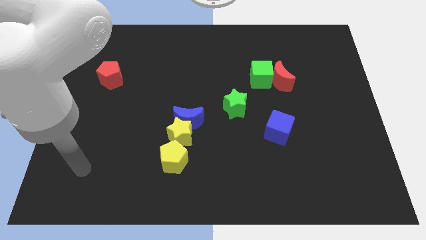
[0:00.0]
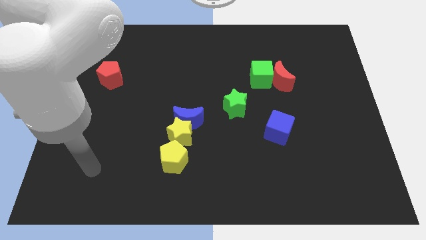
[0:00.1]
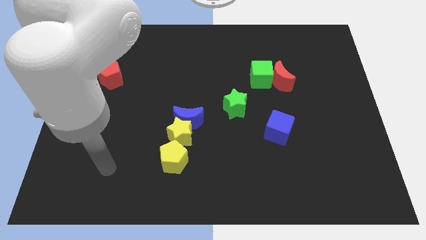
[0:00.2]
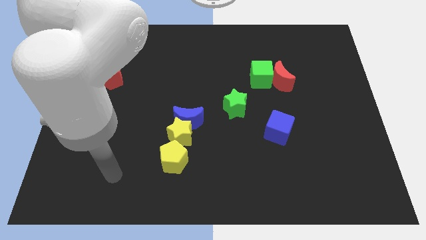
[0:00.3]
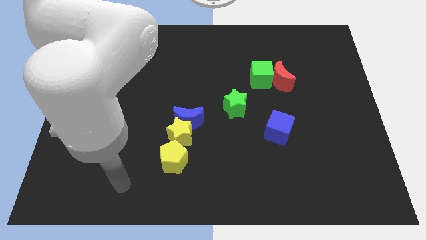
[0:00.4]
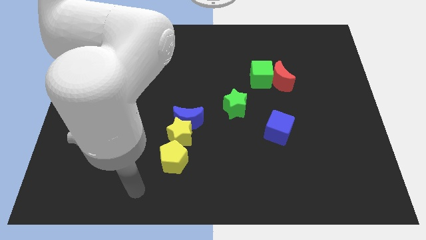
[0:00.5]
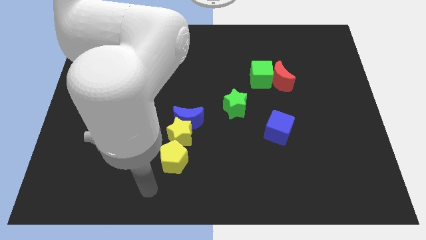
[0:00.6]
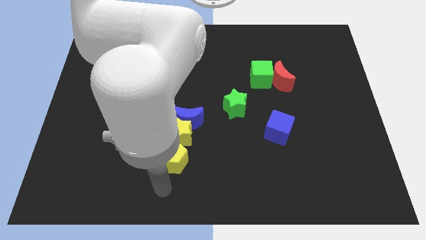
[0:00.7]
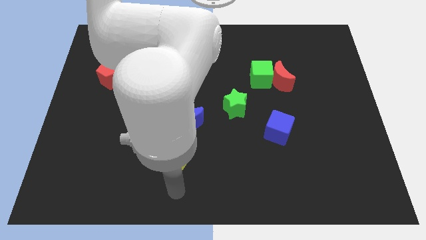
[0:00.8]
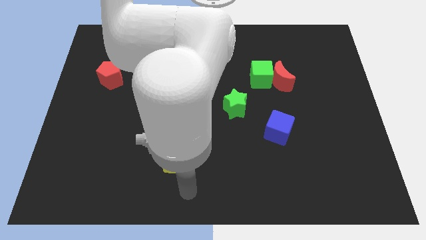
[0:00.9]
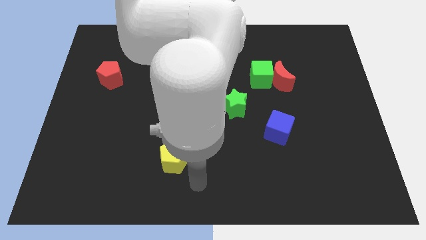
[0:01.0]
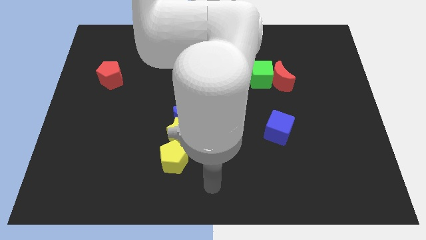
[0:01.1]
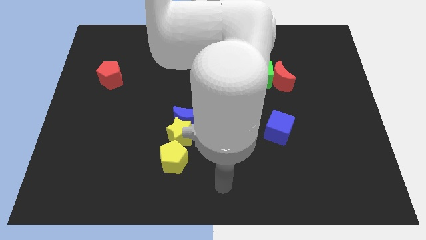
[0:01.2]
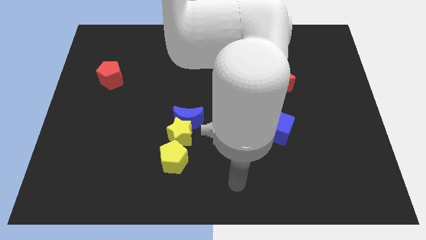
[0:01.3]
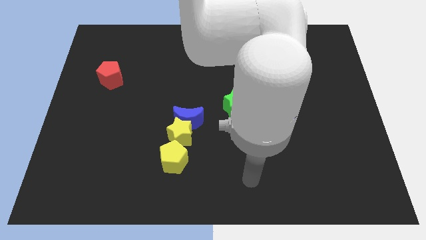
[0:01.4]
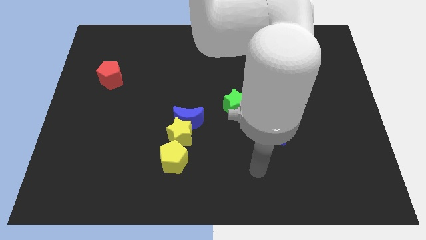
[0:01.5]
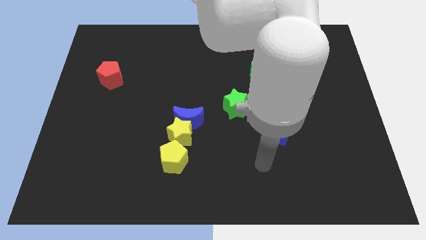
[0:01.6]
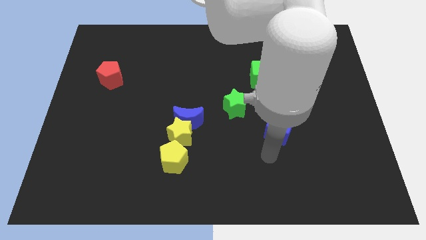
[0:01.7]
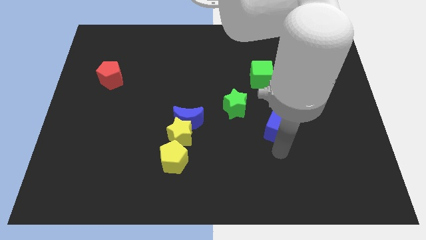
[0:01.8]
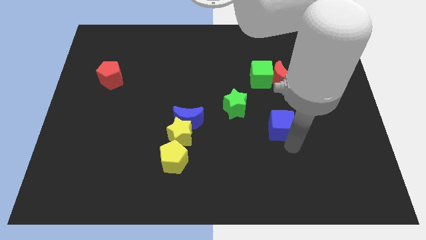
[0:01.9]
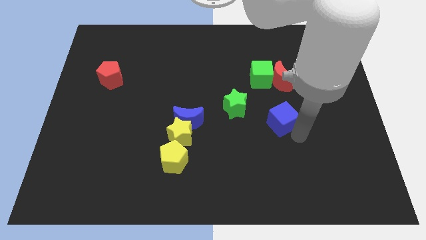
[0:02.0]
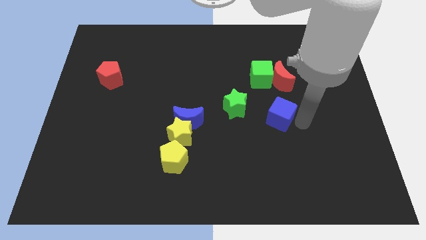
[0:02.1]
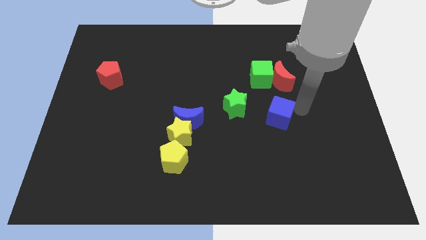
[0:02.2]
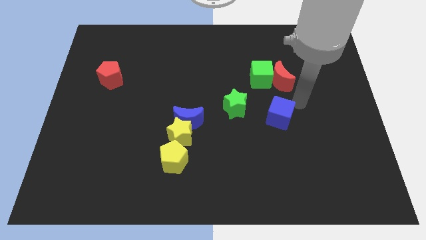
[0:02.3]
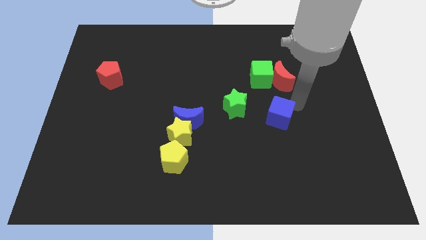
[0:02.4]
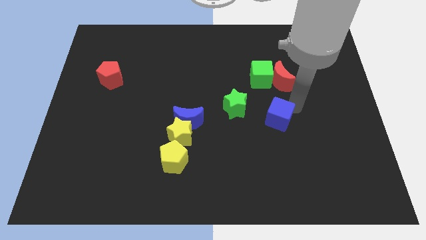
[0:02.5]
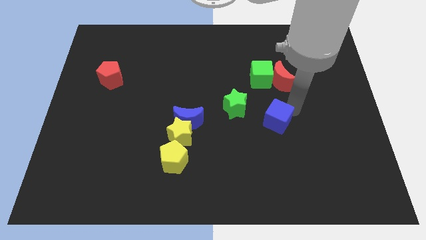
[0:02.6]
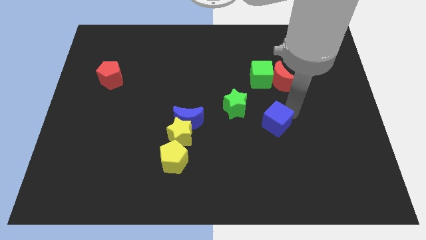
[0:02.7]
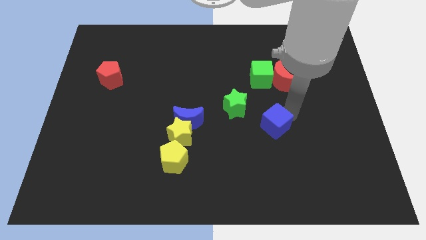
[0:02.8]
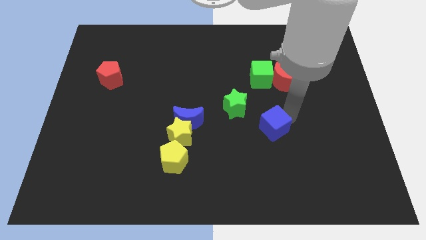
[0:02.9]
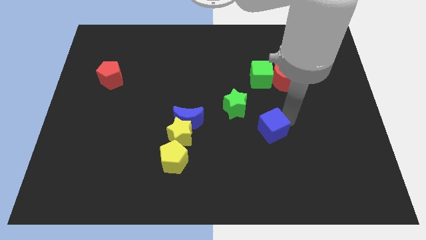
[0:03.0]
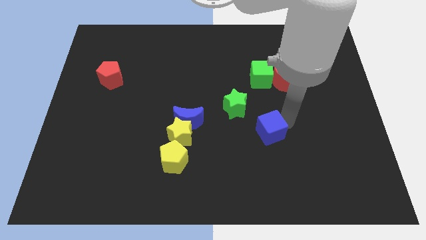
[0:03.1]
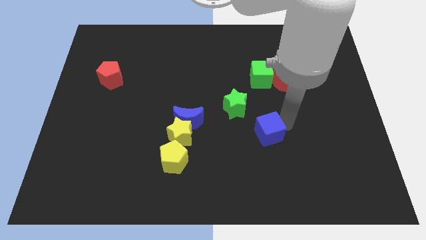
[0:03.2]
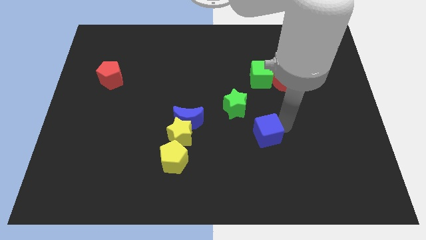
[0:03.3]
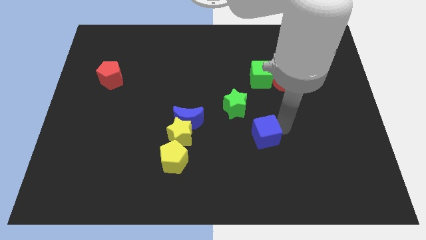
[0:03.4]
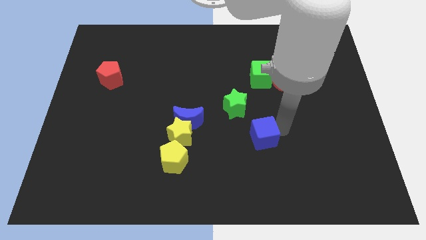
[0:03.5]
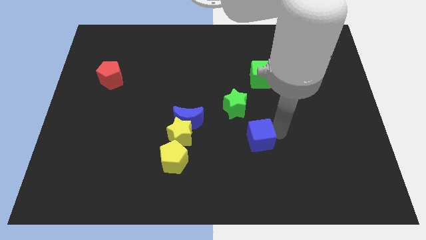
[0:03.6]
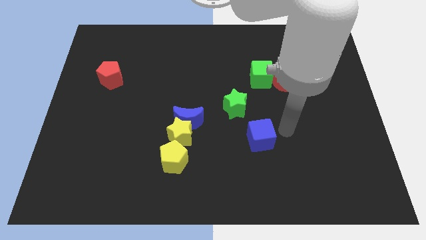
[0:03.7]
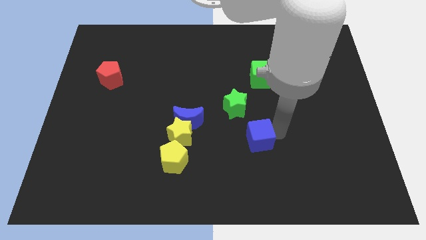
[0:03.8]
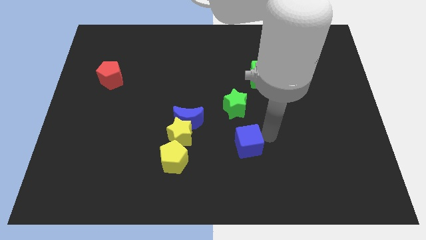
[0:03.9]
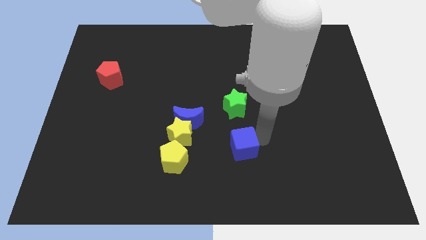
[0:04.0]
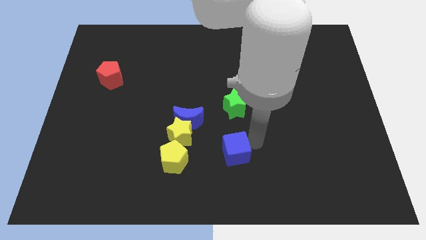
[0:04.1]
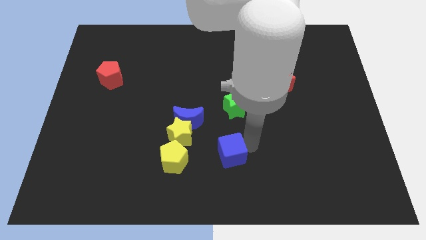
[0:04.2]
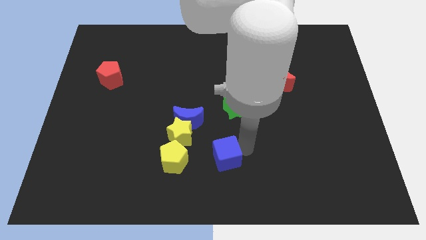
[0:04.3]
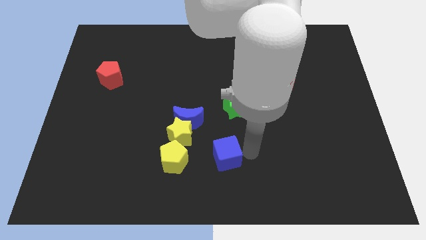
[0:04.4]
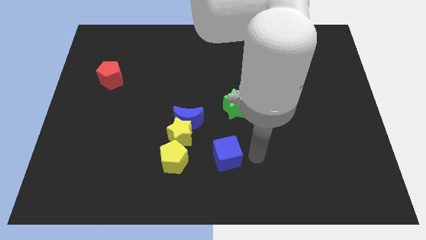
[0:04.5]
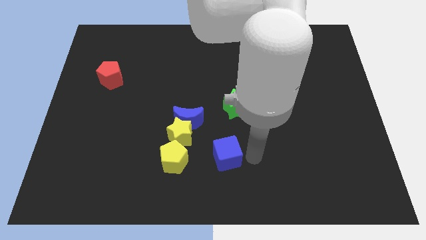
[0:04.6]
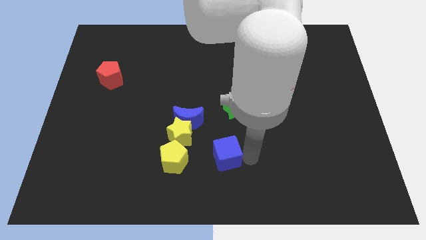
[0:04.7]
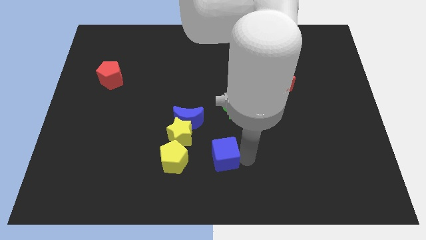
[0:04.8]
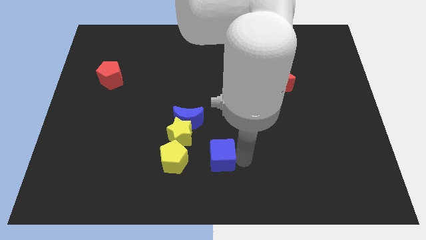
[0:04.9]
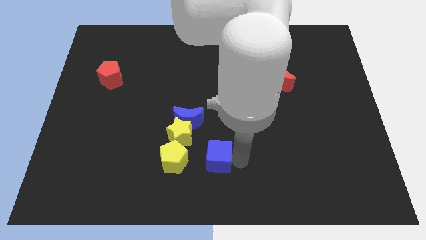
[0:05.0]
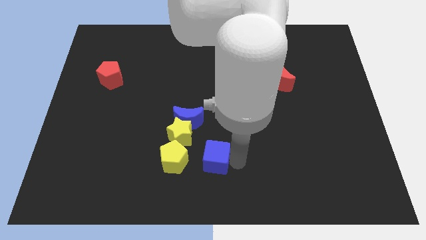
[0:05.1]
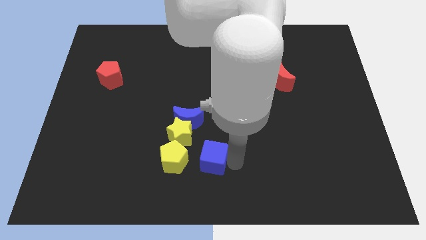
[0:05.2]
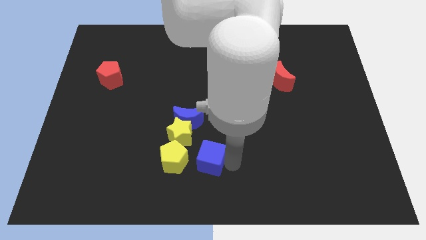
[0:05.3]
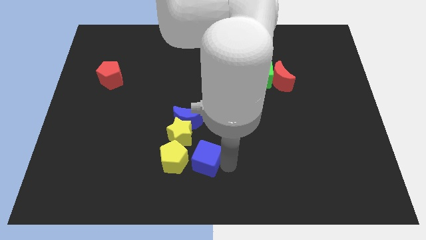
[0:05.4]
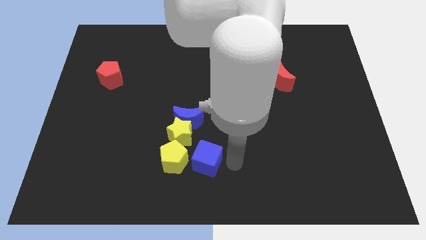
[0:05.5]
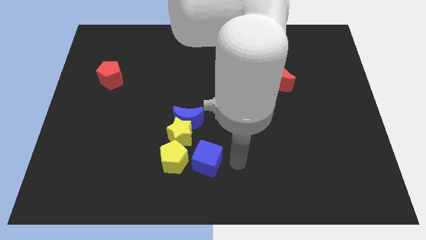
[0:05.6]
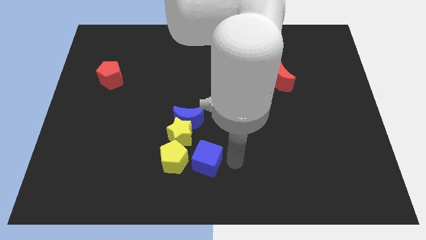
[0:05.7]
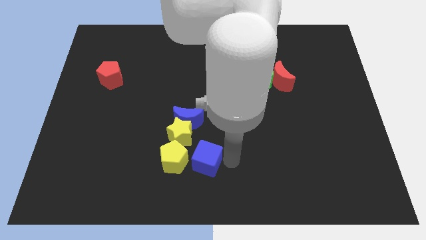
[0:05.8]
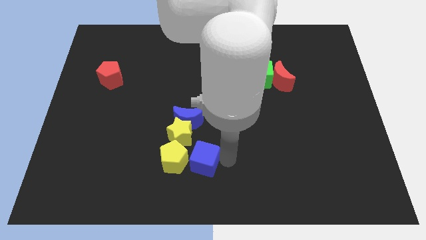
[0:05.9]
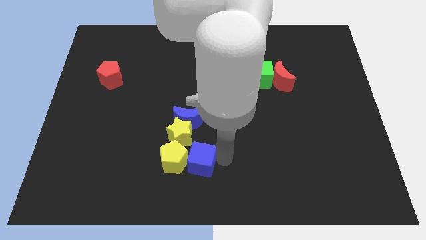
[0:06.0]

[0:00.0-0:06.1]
push the blue cube close to the yellow pentagon
